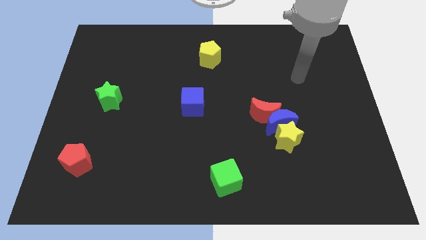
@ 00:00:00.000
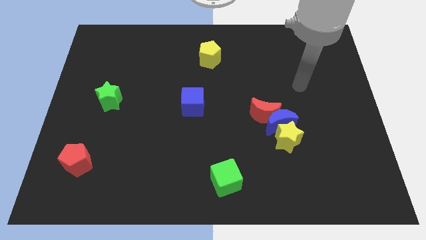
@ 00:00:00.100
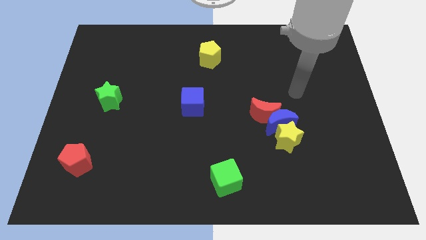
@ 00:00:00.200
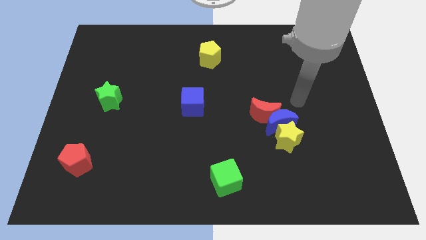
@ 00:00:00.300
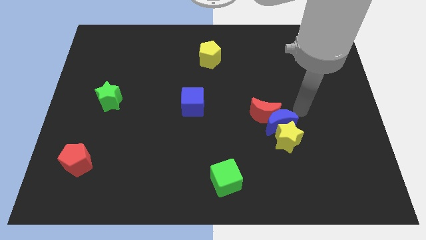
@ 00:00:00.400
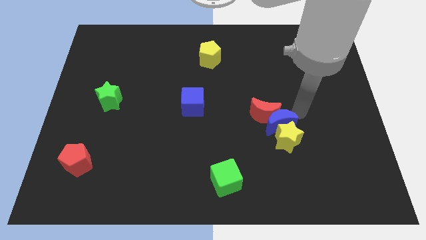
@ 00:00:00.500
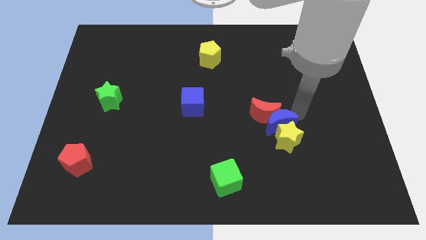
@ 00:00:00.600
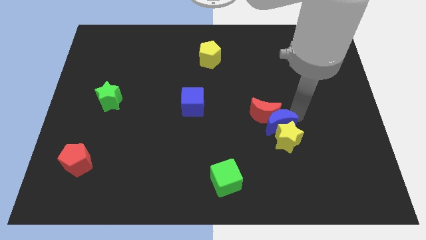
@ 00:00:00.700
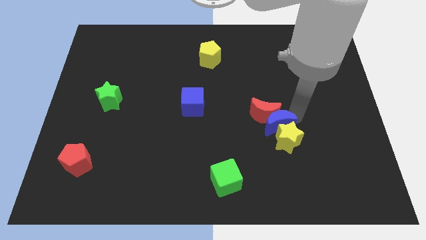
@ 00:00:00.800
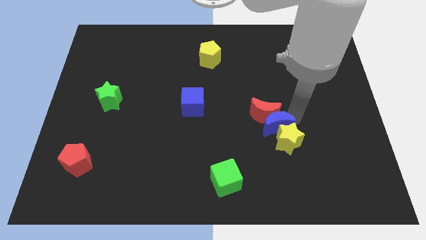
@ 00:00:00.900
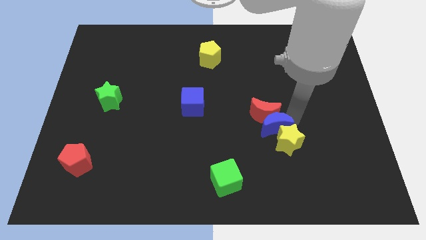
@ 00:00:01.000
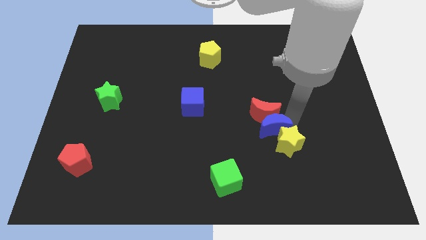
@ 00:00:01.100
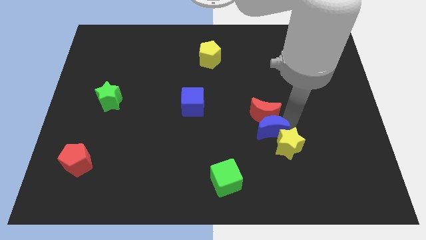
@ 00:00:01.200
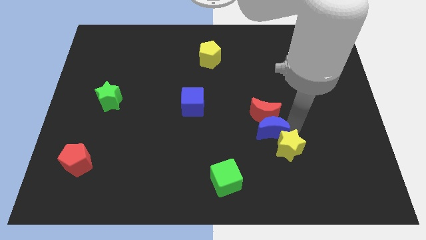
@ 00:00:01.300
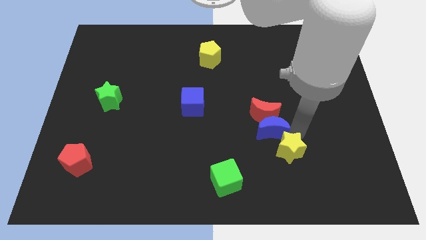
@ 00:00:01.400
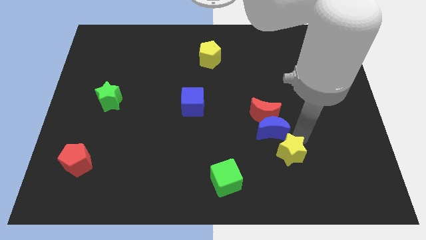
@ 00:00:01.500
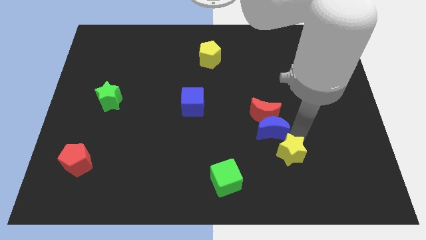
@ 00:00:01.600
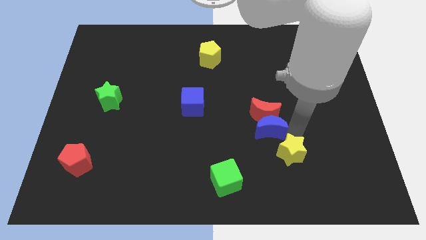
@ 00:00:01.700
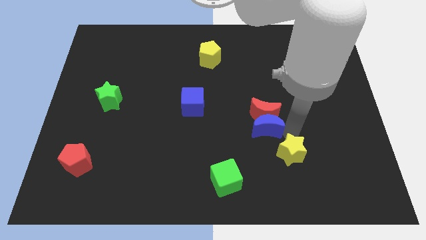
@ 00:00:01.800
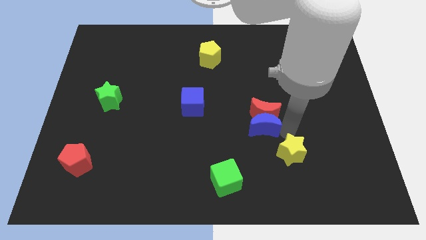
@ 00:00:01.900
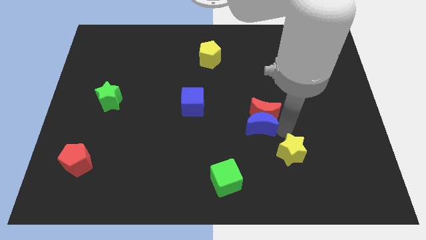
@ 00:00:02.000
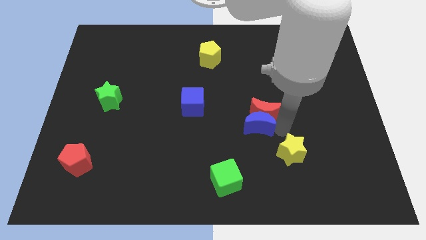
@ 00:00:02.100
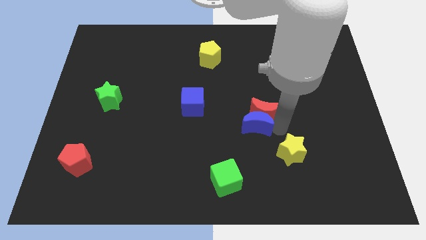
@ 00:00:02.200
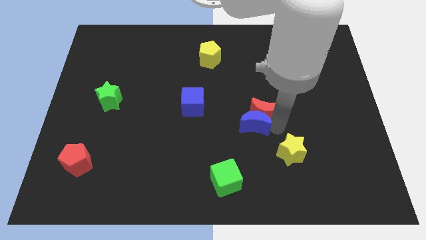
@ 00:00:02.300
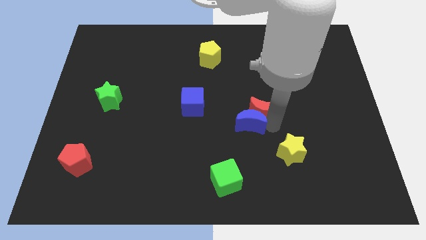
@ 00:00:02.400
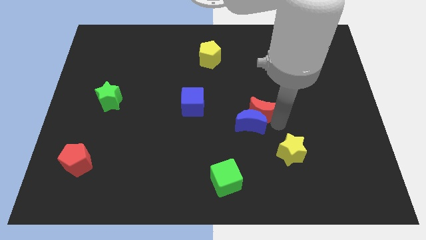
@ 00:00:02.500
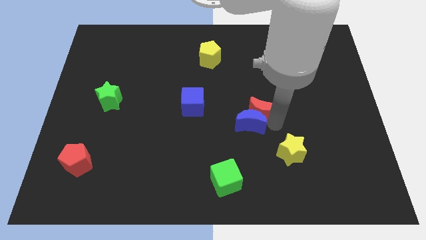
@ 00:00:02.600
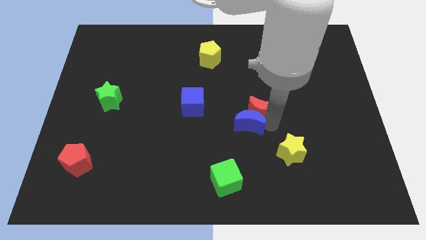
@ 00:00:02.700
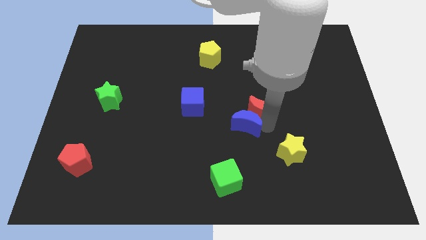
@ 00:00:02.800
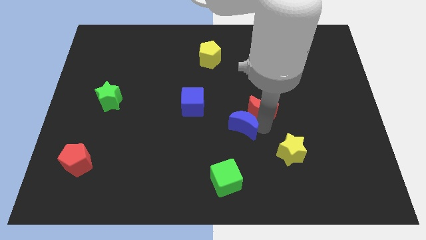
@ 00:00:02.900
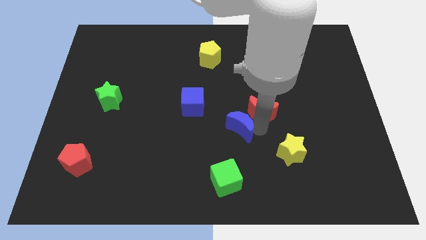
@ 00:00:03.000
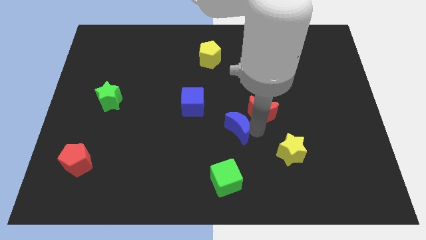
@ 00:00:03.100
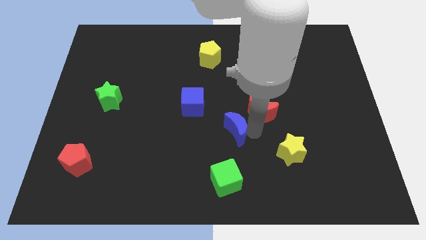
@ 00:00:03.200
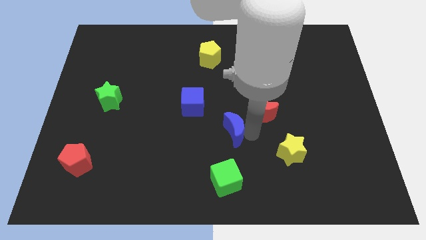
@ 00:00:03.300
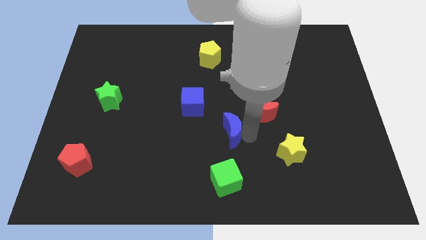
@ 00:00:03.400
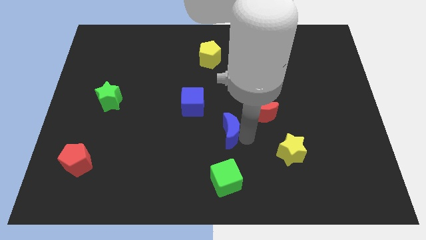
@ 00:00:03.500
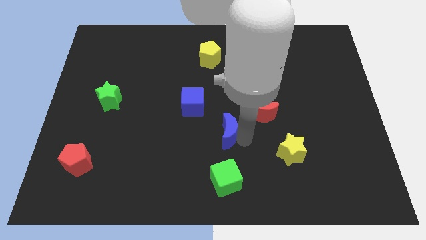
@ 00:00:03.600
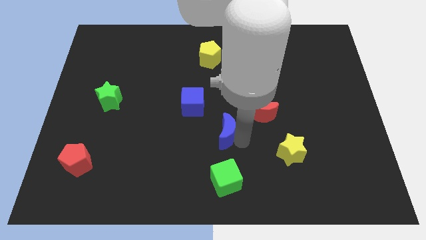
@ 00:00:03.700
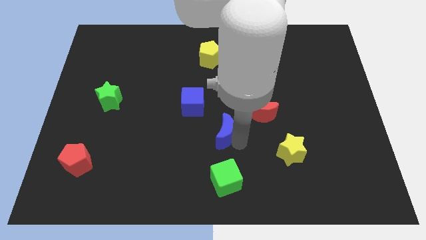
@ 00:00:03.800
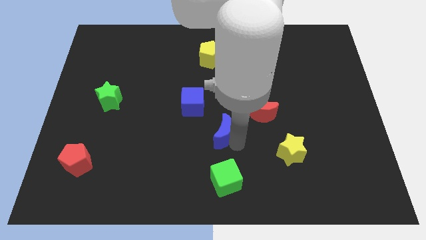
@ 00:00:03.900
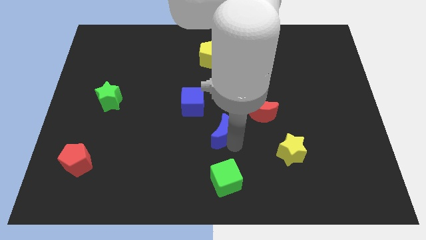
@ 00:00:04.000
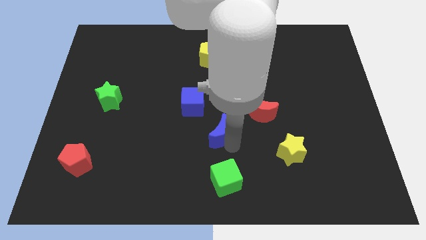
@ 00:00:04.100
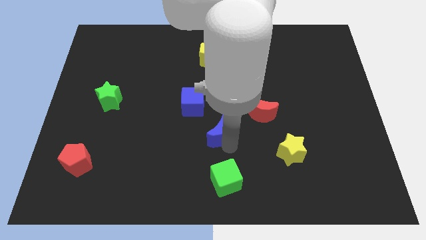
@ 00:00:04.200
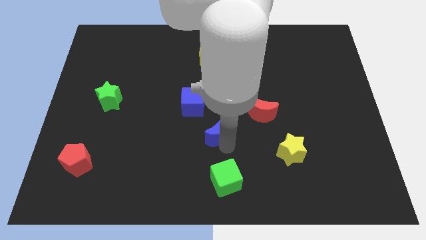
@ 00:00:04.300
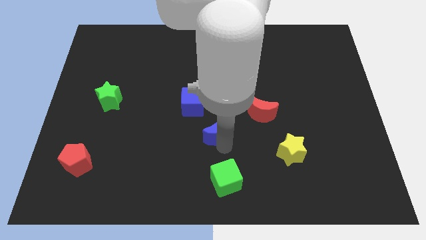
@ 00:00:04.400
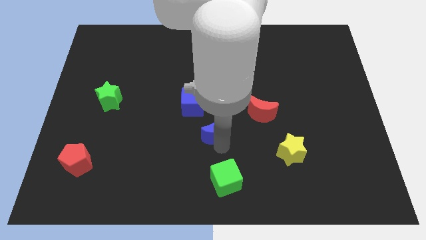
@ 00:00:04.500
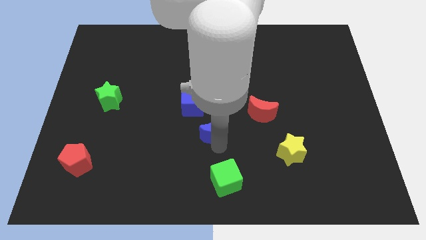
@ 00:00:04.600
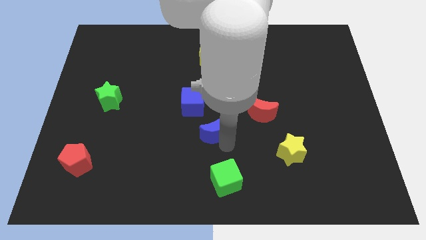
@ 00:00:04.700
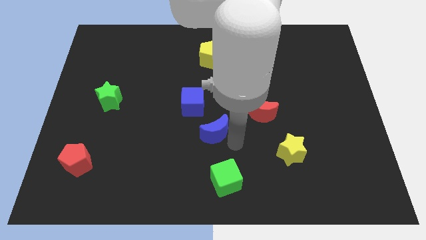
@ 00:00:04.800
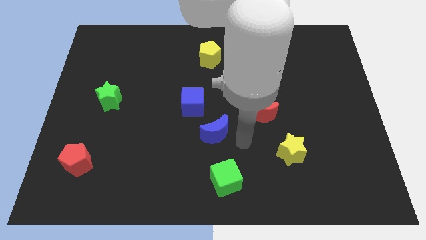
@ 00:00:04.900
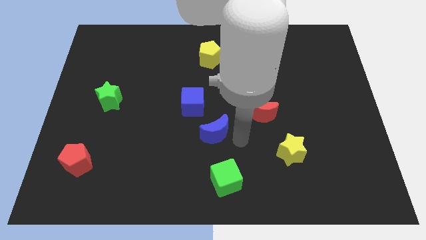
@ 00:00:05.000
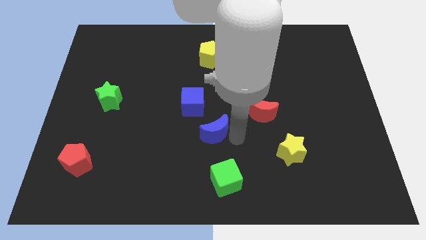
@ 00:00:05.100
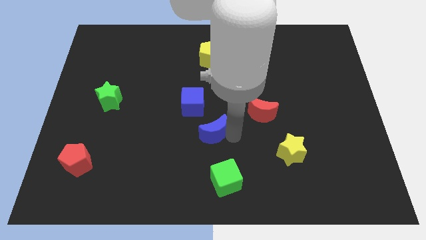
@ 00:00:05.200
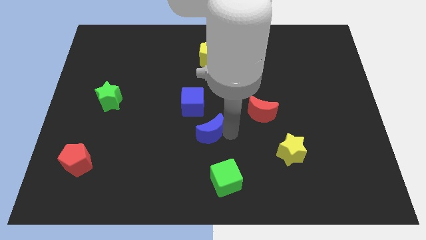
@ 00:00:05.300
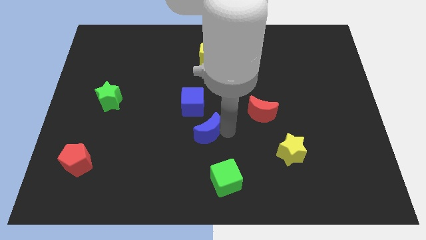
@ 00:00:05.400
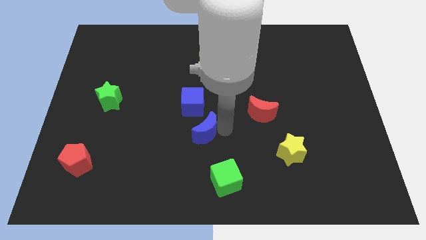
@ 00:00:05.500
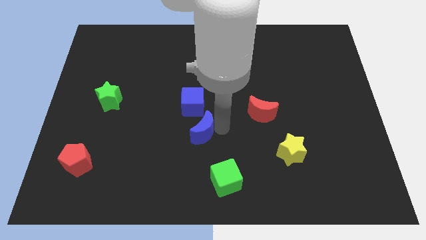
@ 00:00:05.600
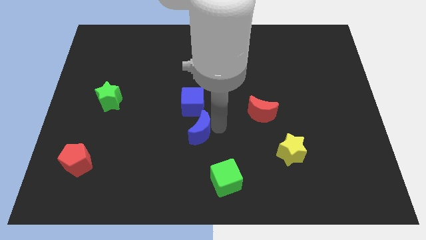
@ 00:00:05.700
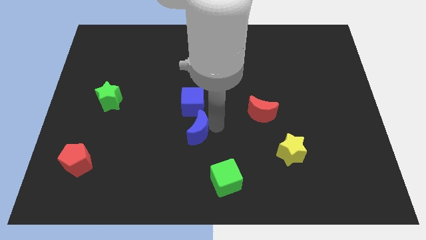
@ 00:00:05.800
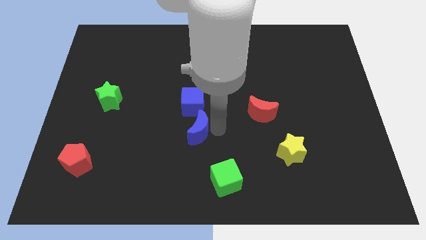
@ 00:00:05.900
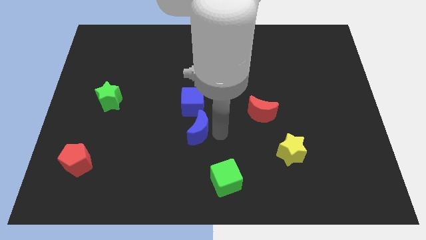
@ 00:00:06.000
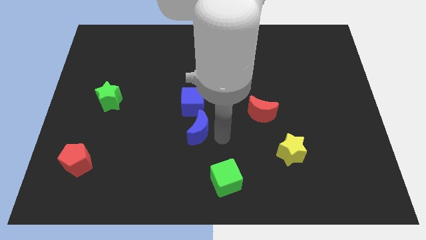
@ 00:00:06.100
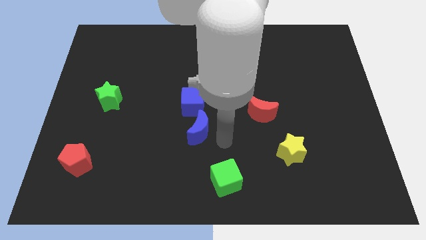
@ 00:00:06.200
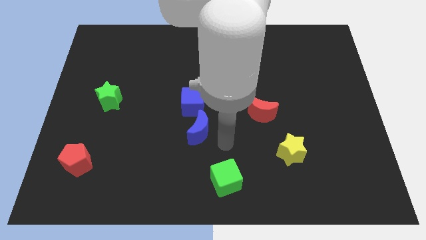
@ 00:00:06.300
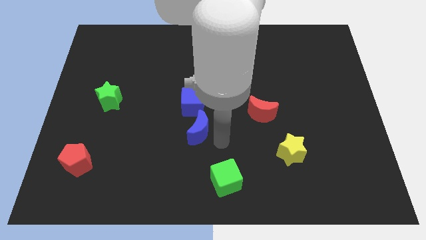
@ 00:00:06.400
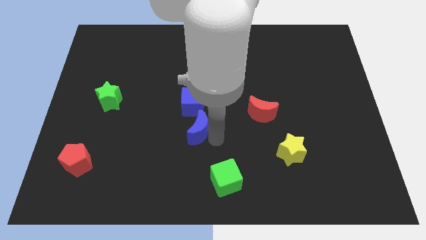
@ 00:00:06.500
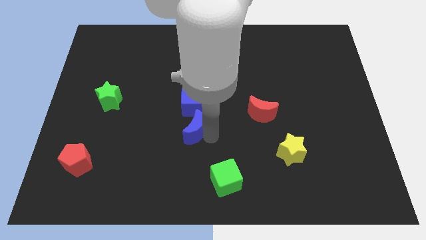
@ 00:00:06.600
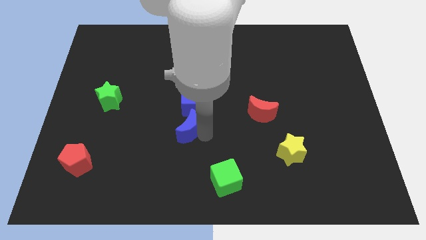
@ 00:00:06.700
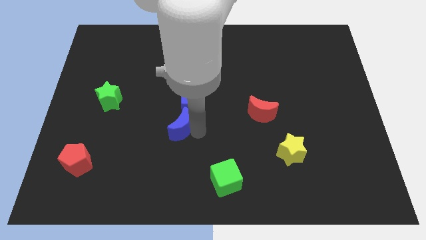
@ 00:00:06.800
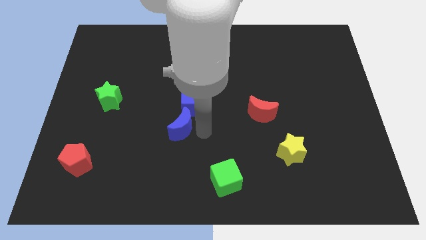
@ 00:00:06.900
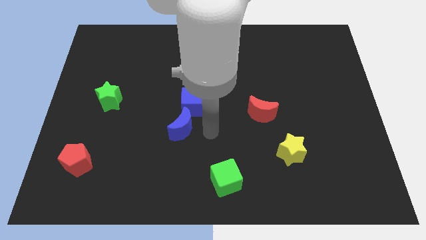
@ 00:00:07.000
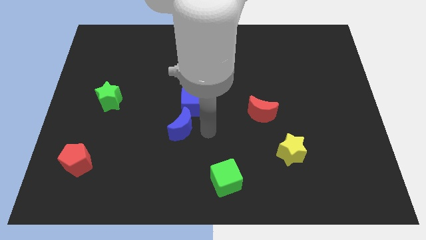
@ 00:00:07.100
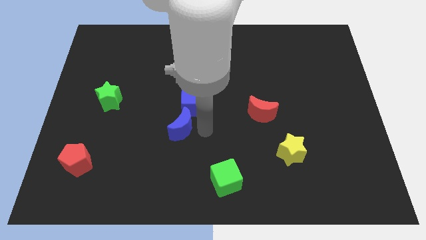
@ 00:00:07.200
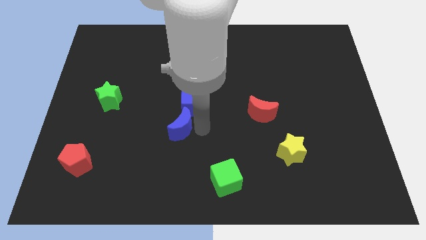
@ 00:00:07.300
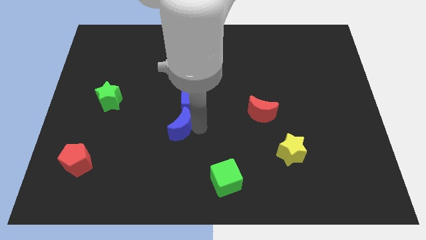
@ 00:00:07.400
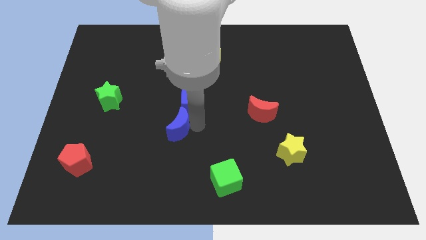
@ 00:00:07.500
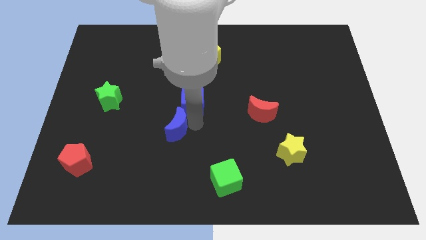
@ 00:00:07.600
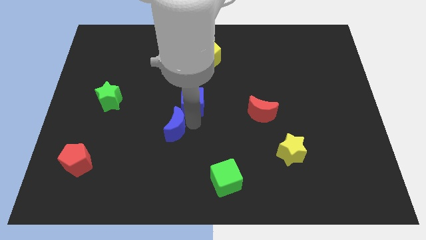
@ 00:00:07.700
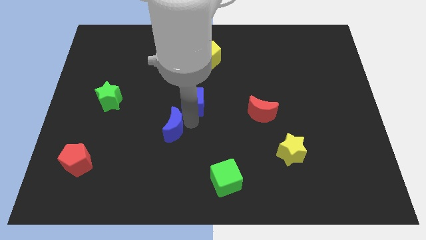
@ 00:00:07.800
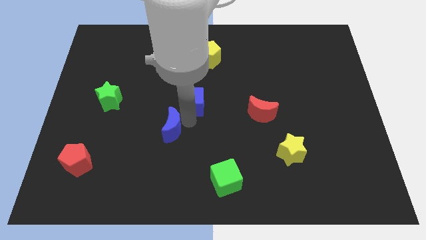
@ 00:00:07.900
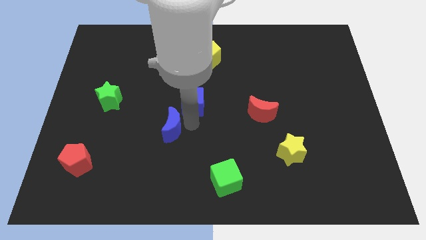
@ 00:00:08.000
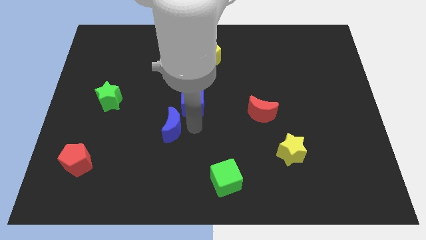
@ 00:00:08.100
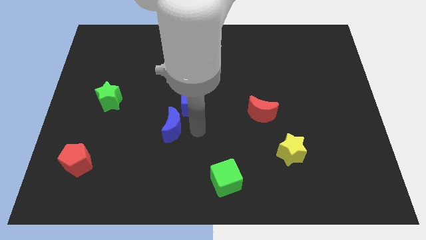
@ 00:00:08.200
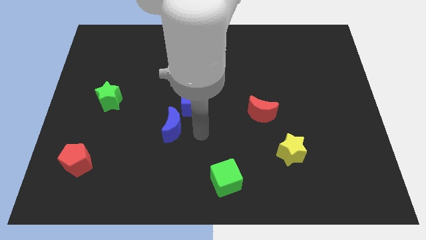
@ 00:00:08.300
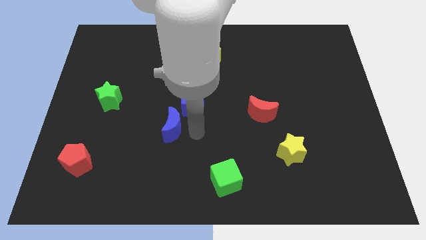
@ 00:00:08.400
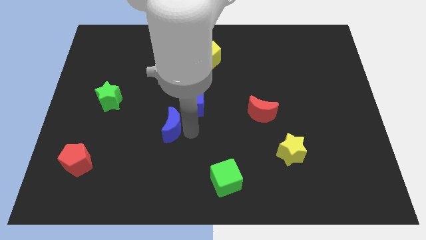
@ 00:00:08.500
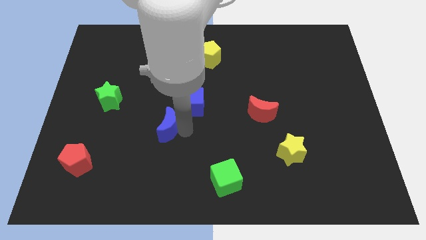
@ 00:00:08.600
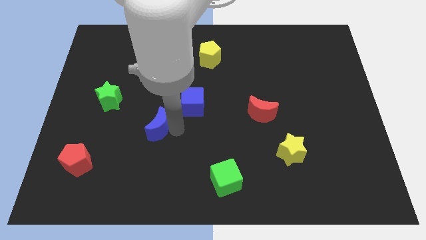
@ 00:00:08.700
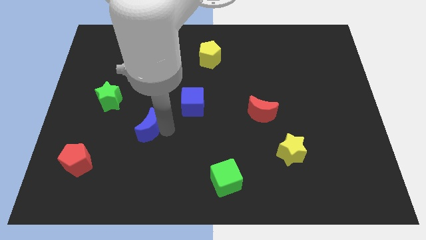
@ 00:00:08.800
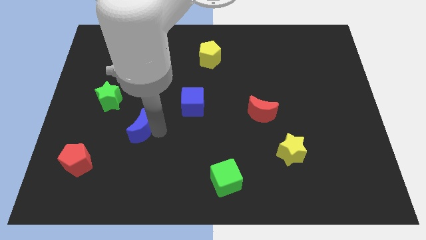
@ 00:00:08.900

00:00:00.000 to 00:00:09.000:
put the blue moon to the bottom right of the green star
